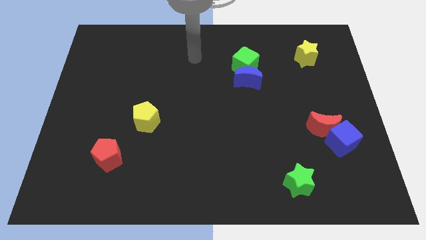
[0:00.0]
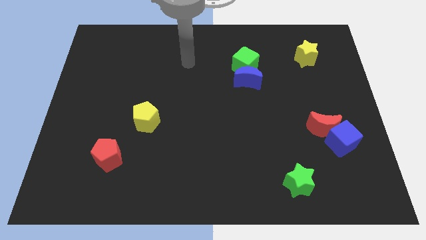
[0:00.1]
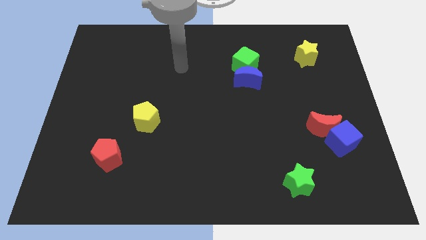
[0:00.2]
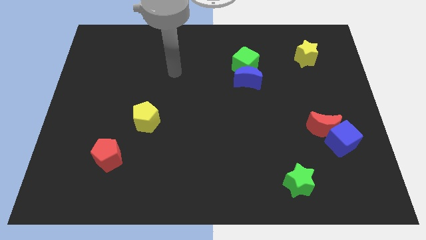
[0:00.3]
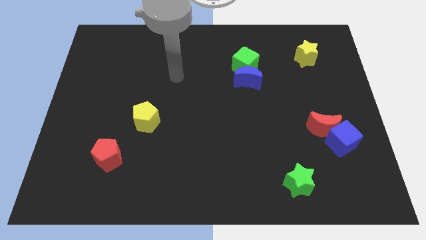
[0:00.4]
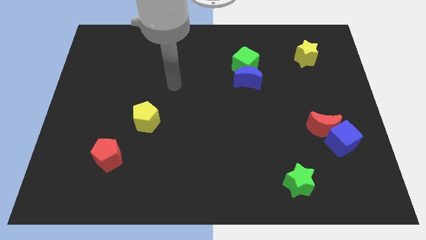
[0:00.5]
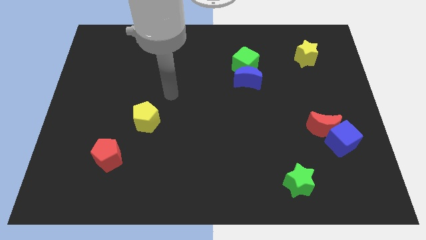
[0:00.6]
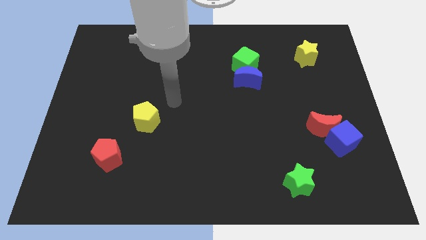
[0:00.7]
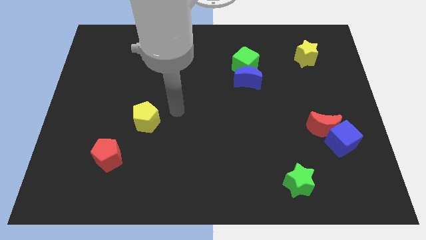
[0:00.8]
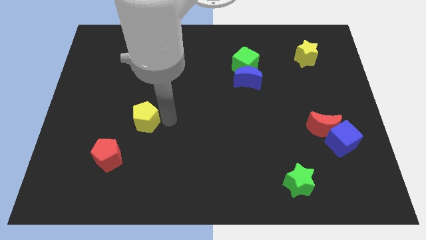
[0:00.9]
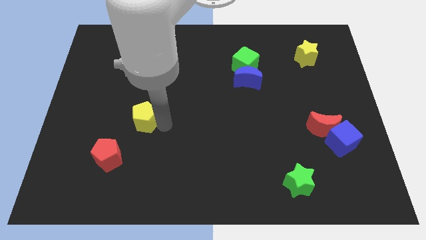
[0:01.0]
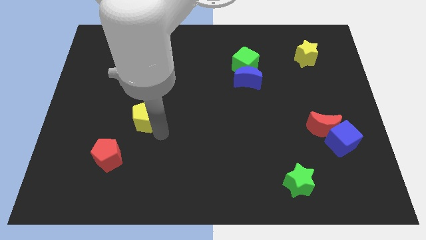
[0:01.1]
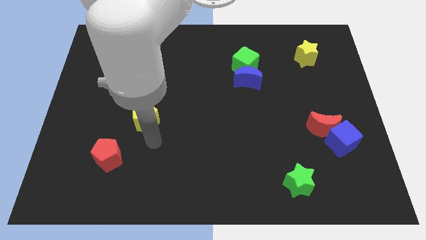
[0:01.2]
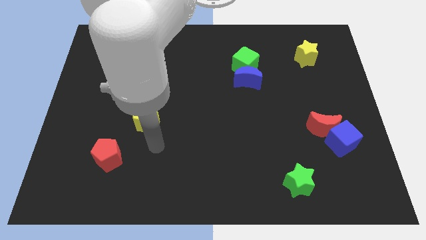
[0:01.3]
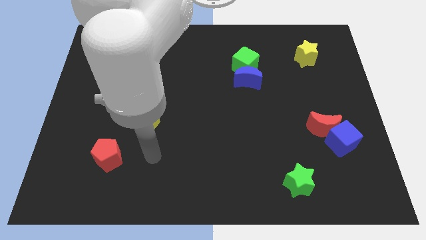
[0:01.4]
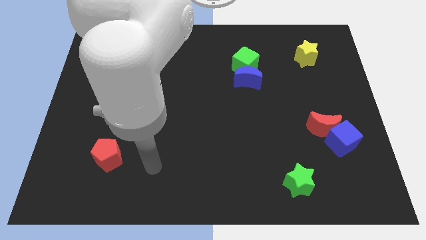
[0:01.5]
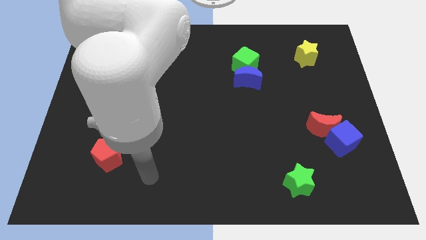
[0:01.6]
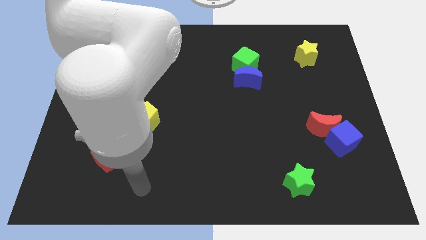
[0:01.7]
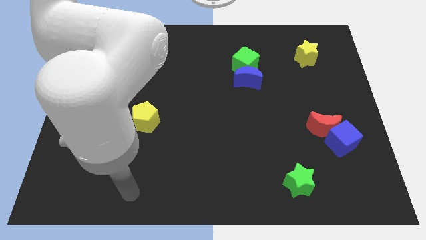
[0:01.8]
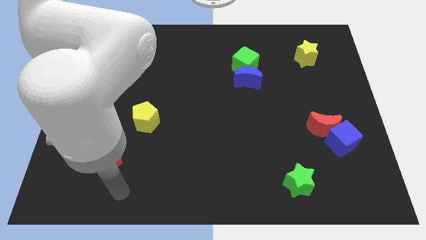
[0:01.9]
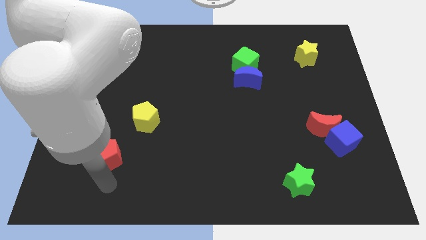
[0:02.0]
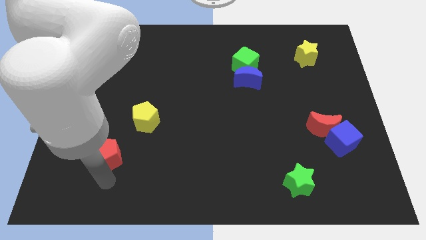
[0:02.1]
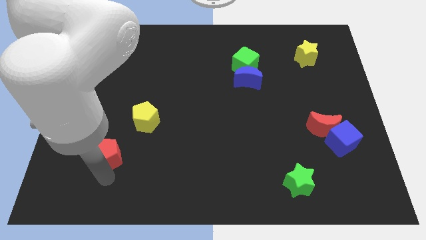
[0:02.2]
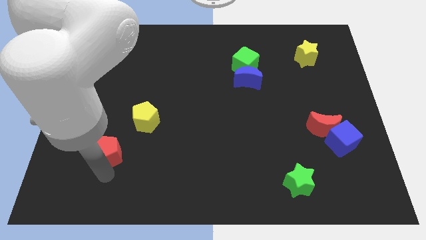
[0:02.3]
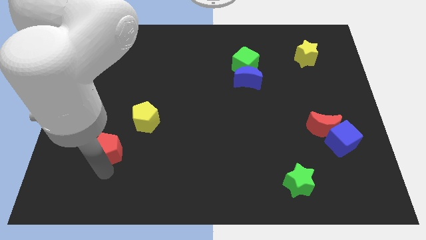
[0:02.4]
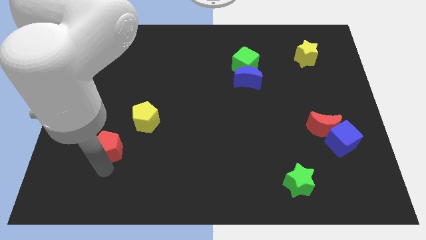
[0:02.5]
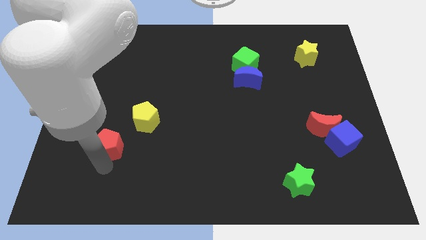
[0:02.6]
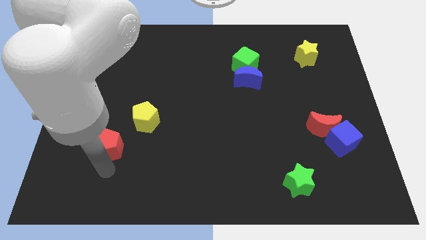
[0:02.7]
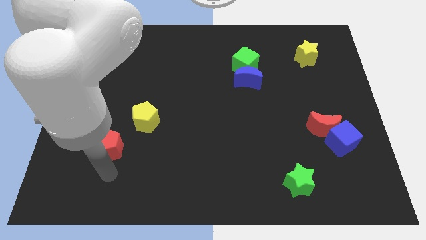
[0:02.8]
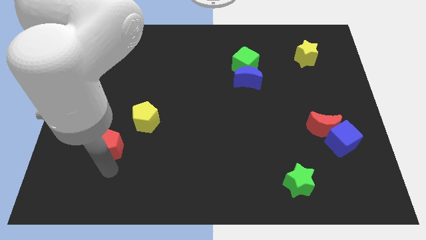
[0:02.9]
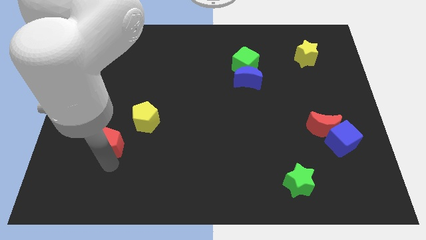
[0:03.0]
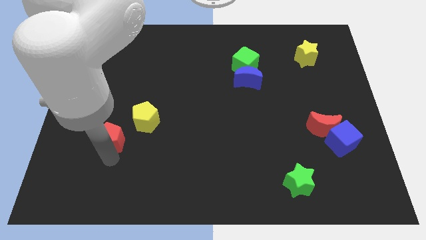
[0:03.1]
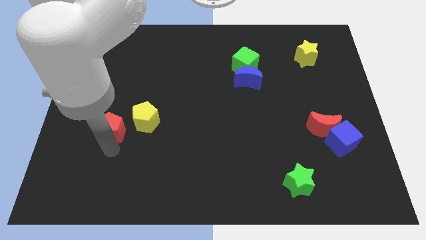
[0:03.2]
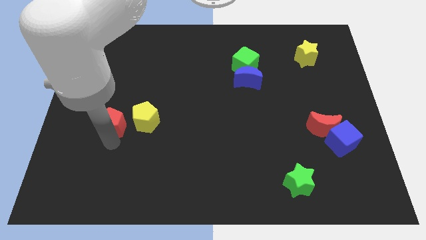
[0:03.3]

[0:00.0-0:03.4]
slightly push the red pentagon upwards

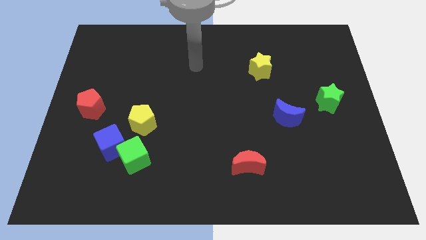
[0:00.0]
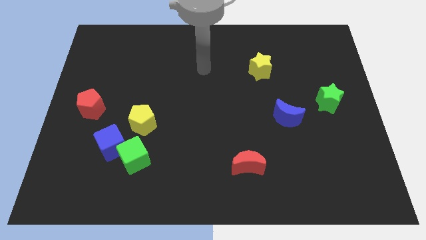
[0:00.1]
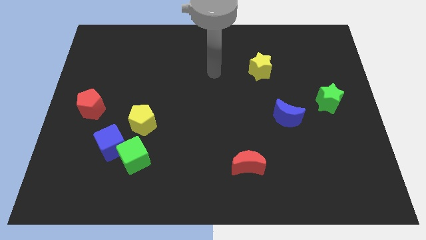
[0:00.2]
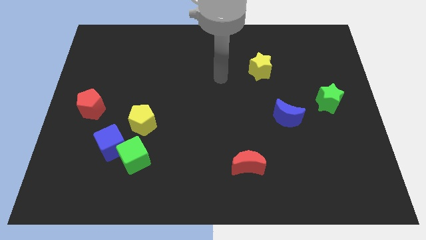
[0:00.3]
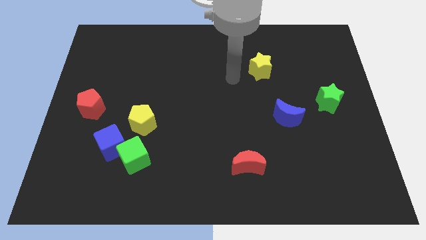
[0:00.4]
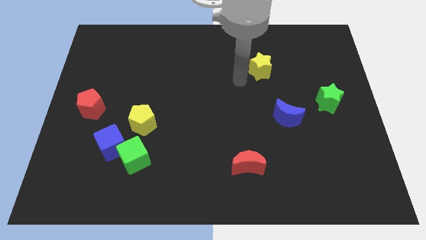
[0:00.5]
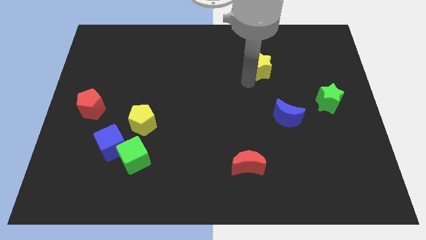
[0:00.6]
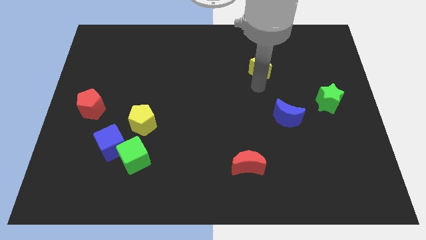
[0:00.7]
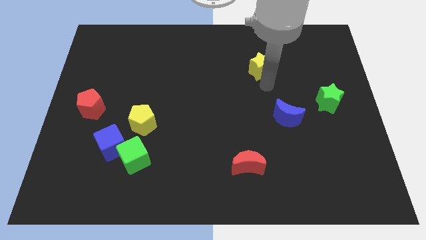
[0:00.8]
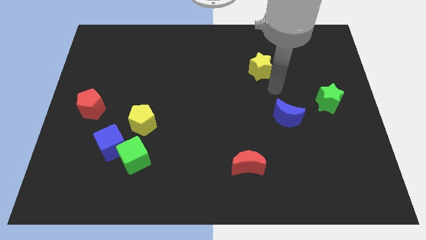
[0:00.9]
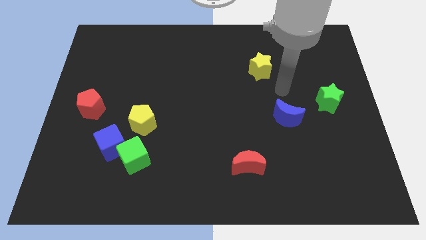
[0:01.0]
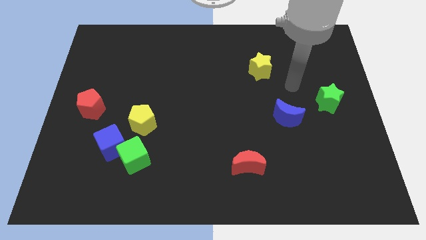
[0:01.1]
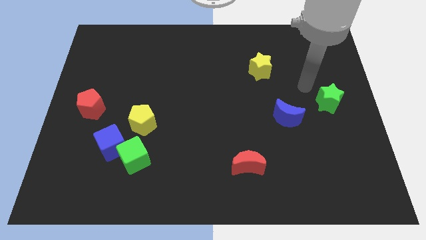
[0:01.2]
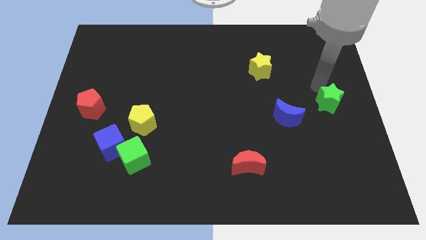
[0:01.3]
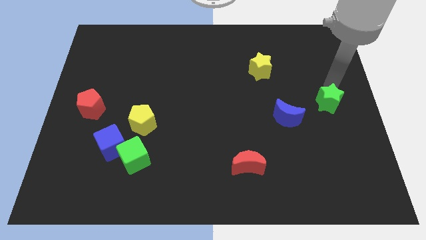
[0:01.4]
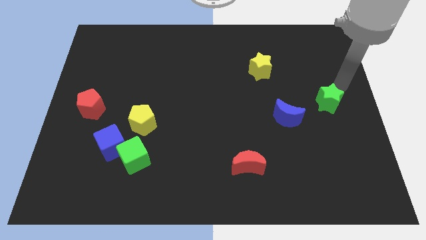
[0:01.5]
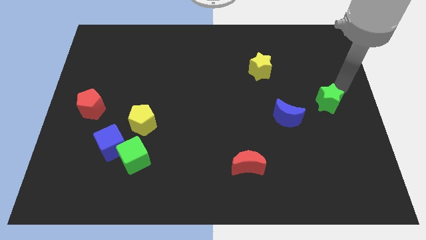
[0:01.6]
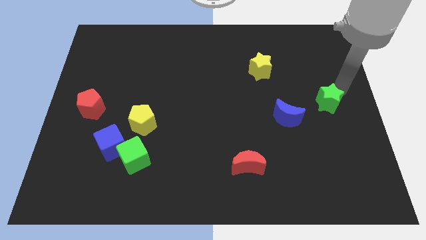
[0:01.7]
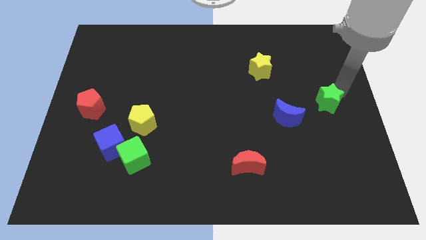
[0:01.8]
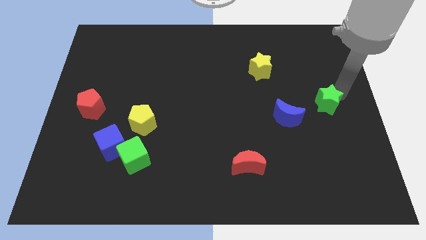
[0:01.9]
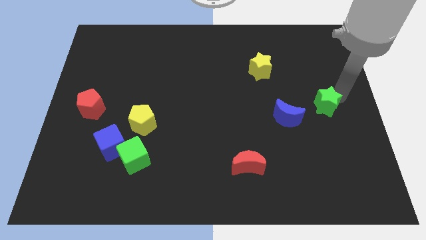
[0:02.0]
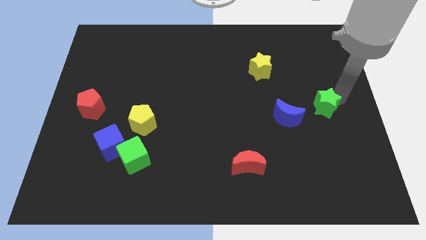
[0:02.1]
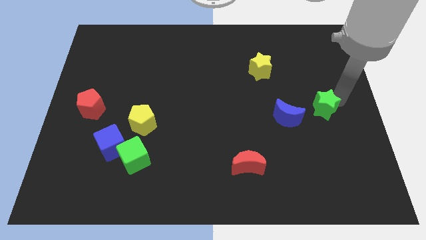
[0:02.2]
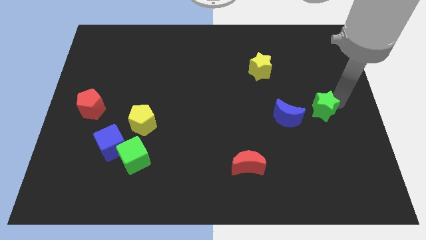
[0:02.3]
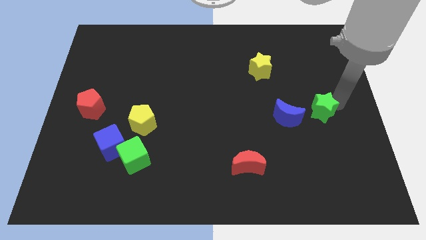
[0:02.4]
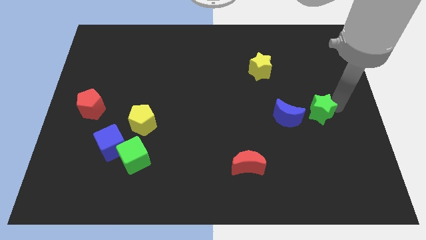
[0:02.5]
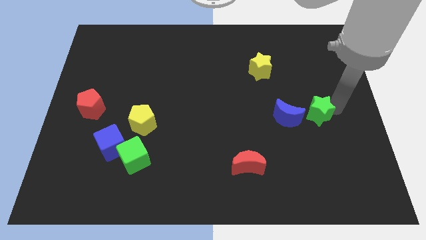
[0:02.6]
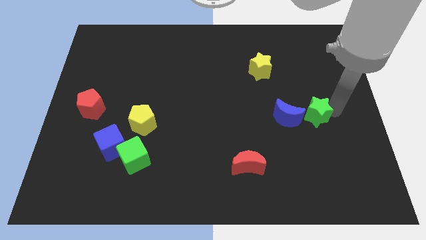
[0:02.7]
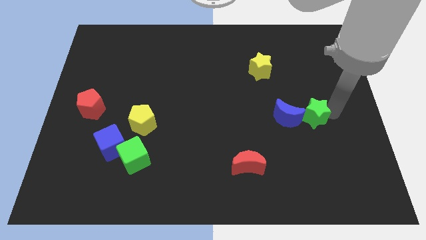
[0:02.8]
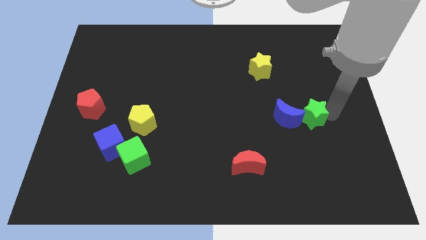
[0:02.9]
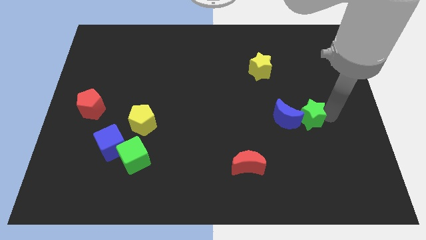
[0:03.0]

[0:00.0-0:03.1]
slightly slide the green star downwards and left

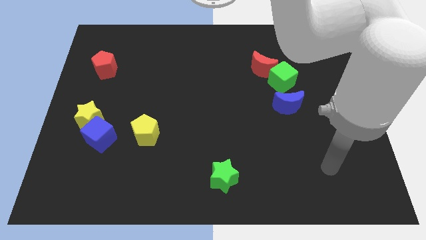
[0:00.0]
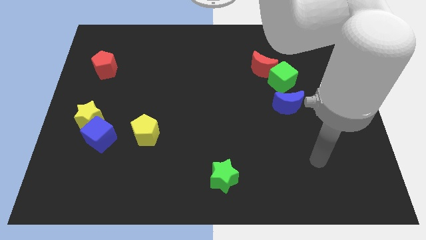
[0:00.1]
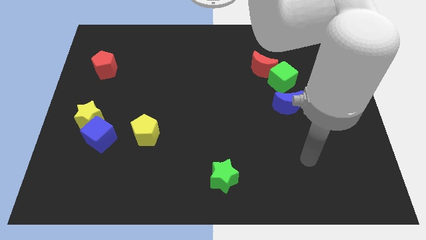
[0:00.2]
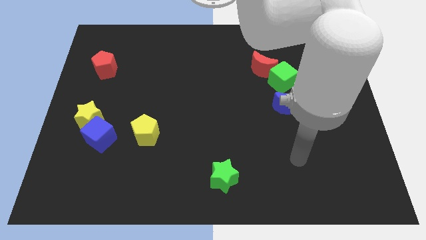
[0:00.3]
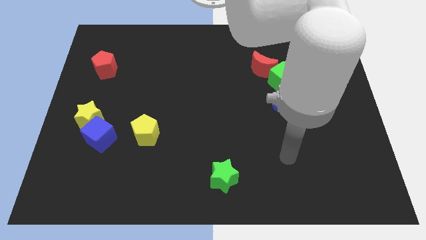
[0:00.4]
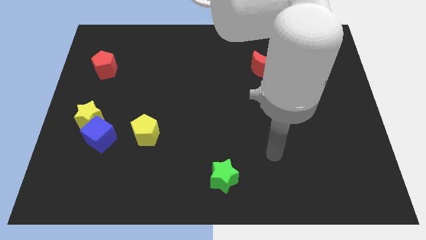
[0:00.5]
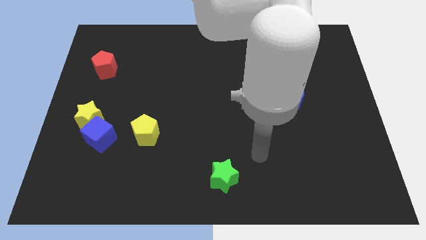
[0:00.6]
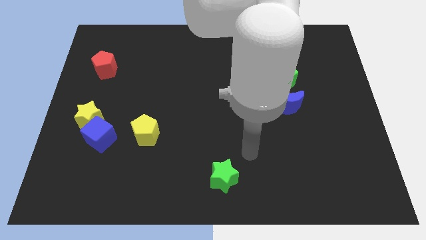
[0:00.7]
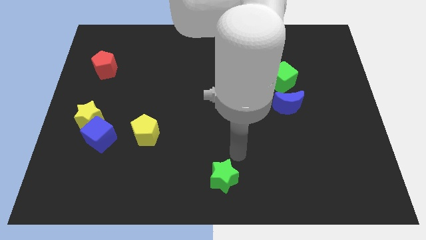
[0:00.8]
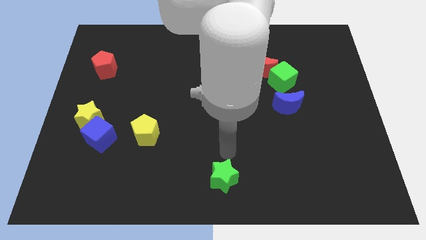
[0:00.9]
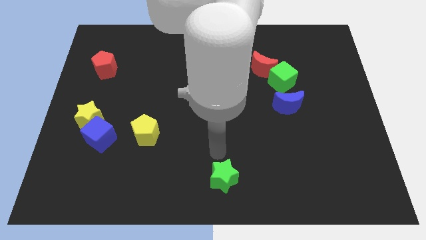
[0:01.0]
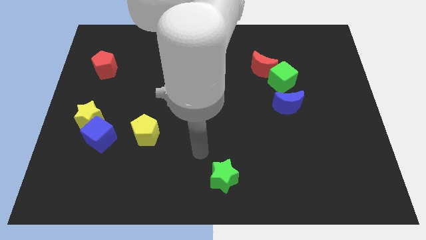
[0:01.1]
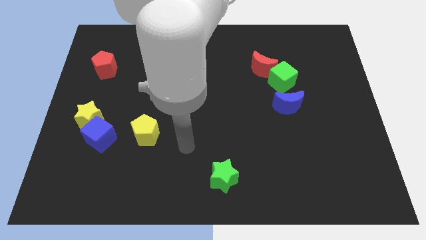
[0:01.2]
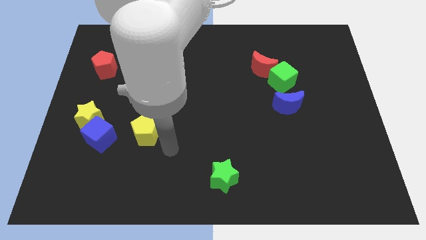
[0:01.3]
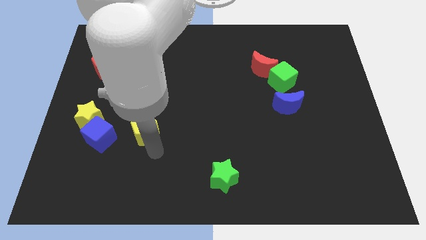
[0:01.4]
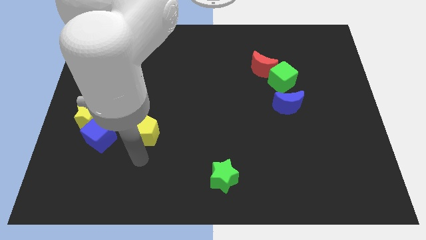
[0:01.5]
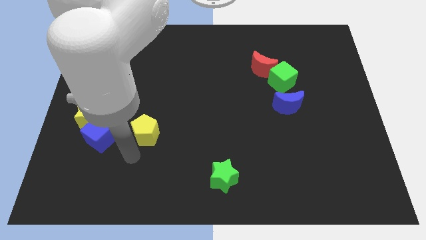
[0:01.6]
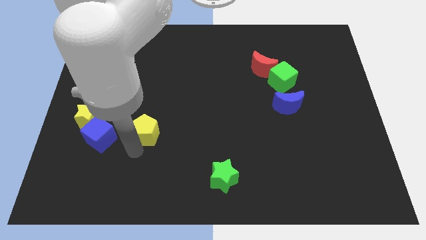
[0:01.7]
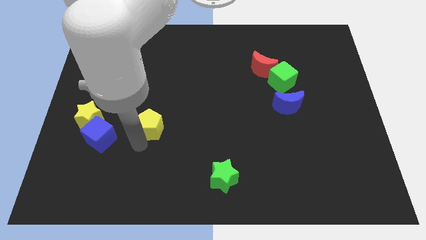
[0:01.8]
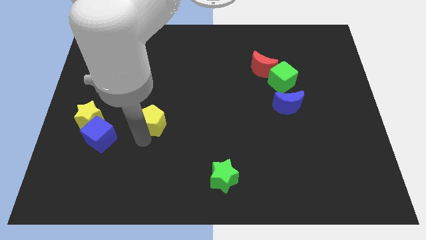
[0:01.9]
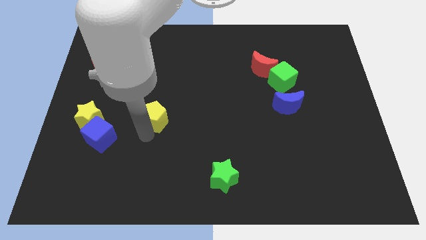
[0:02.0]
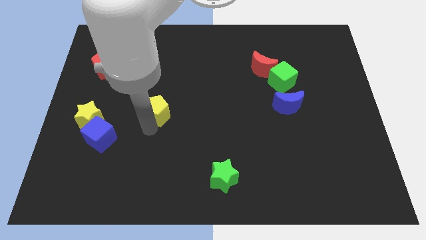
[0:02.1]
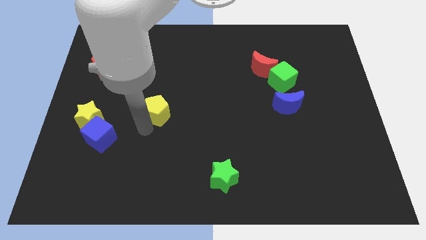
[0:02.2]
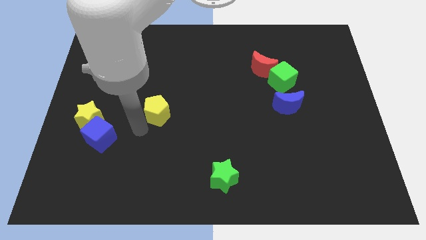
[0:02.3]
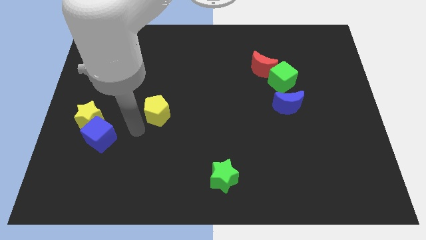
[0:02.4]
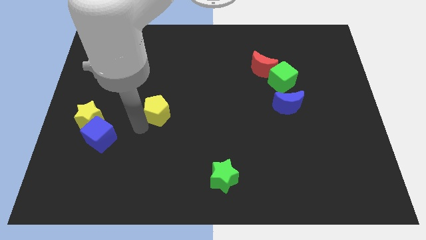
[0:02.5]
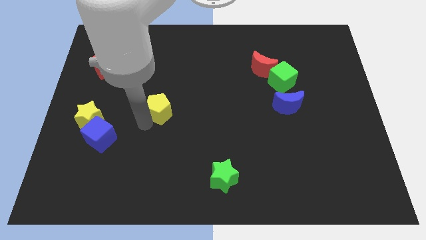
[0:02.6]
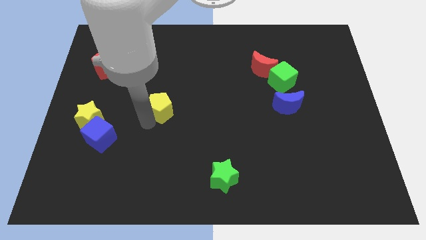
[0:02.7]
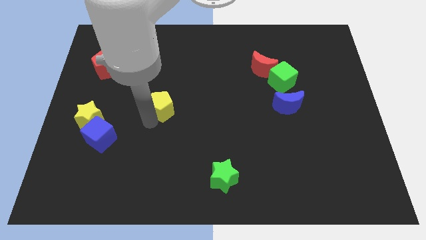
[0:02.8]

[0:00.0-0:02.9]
push the yellow pentagon a little bit diagonally upwards and to the right
